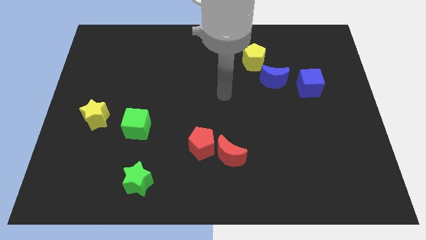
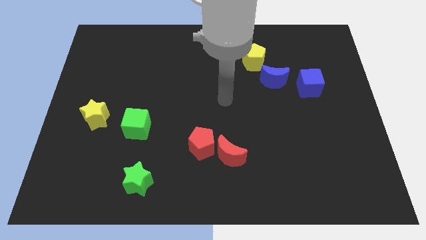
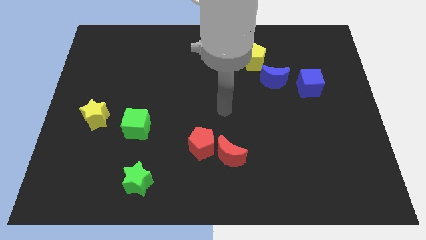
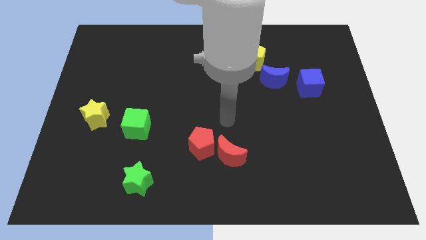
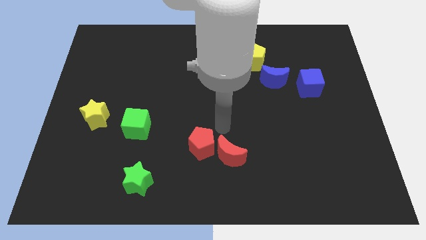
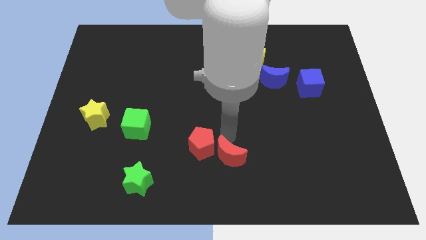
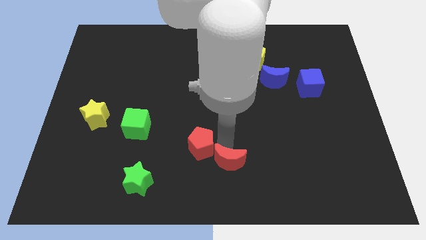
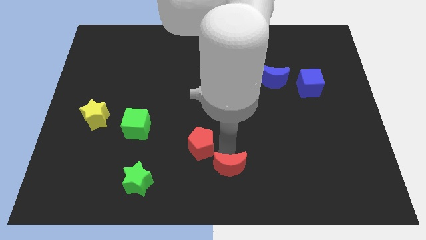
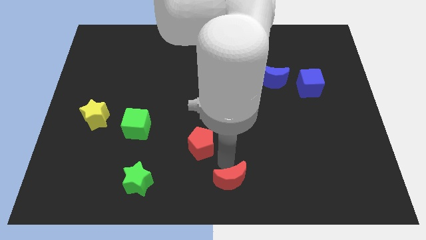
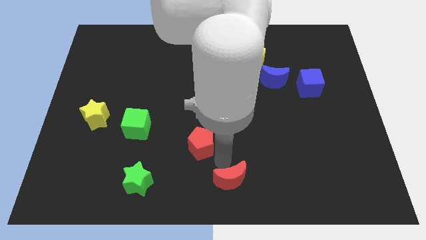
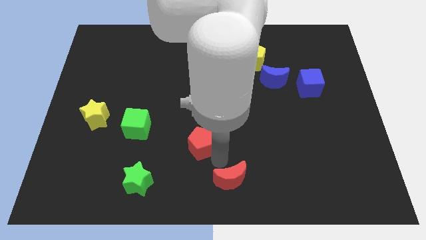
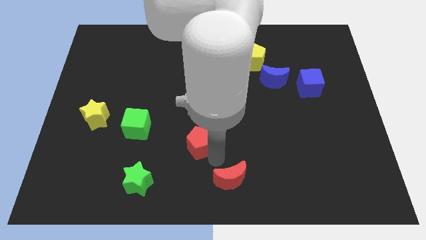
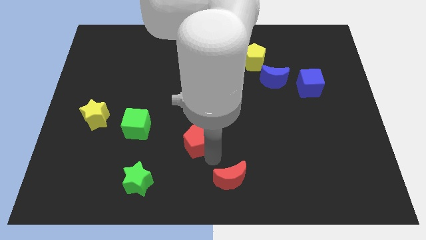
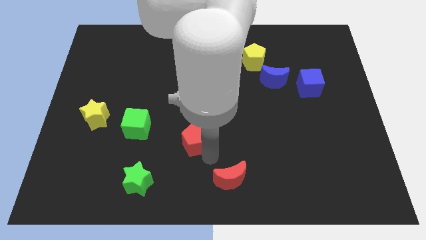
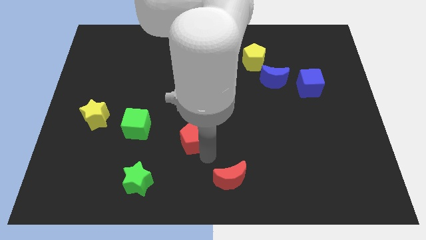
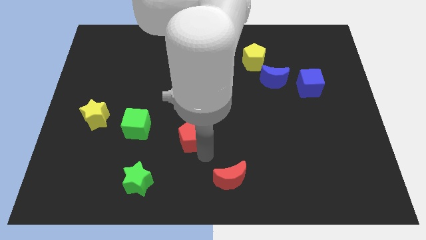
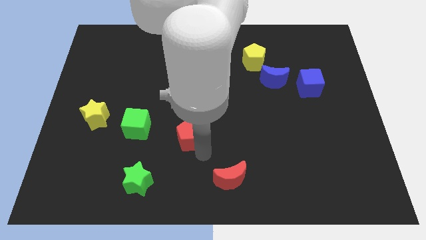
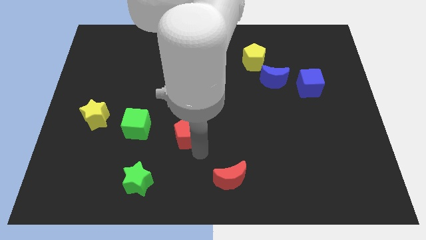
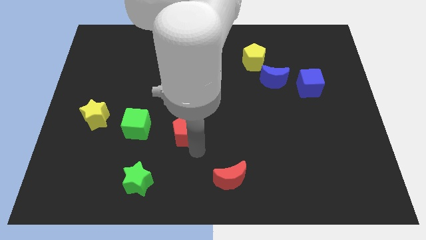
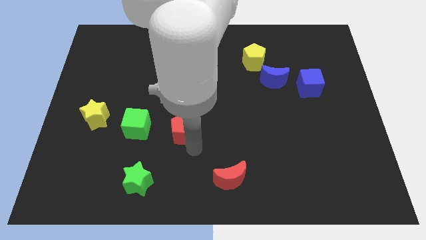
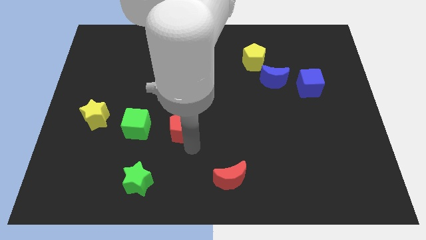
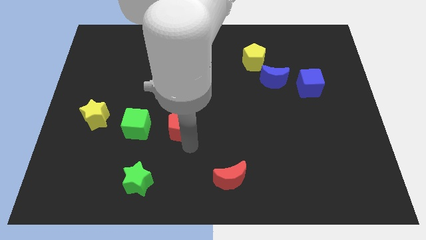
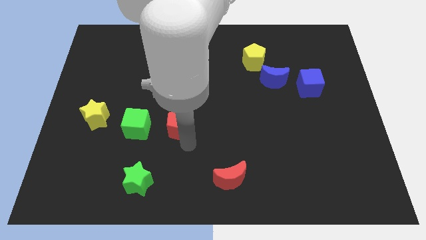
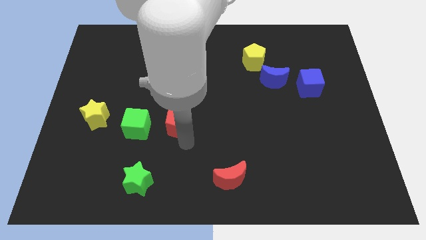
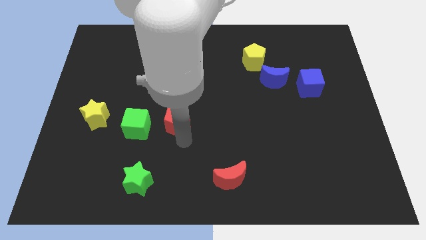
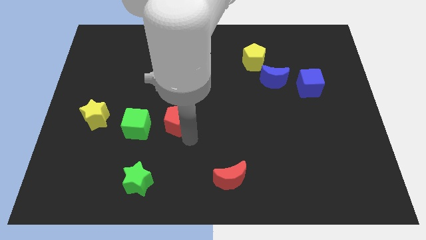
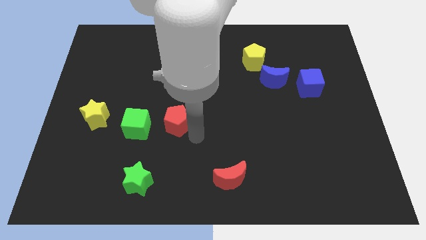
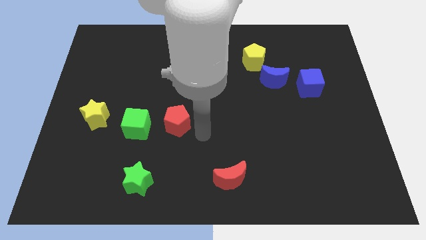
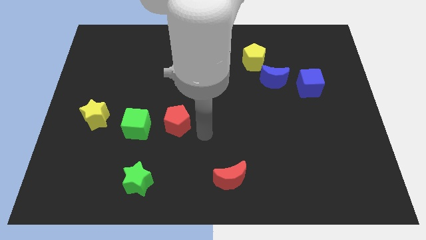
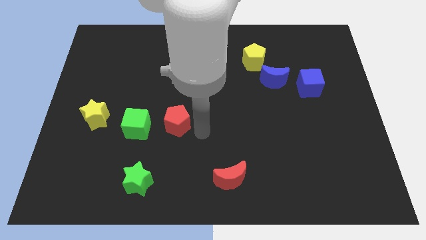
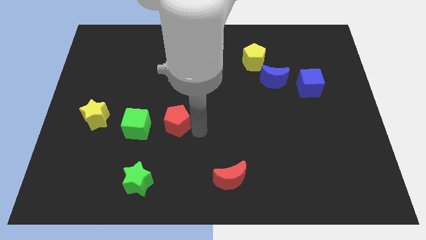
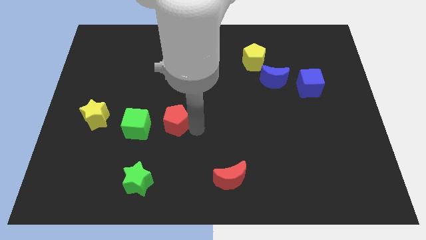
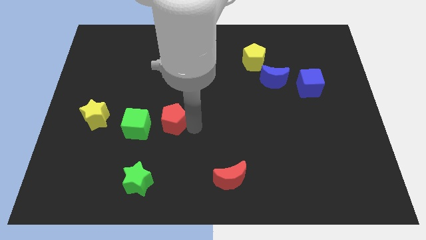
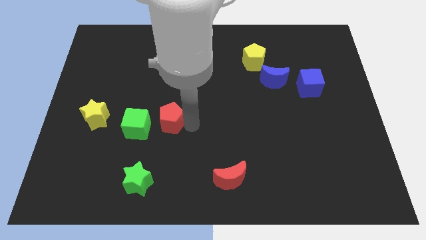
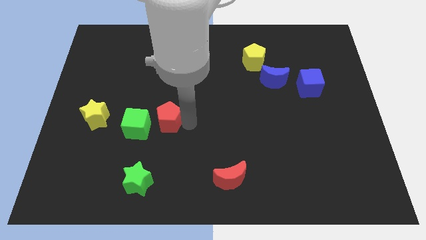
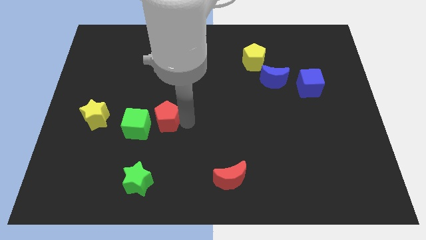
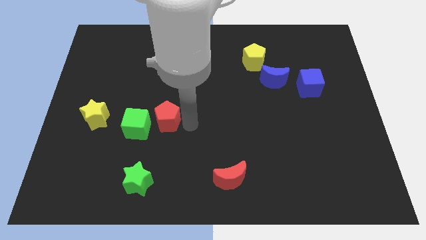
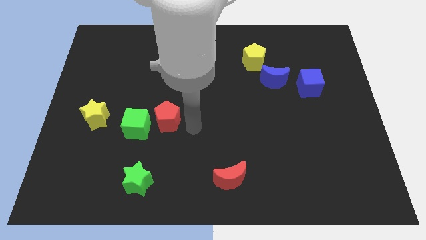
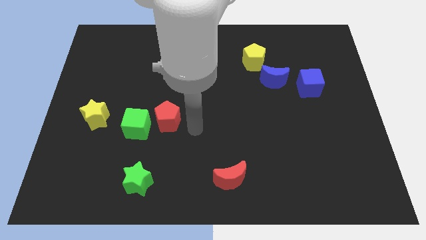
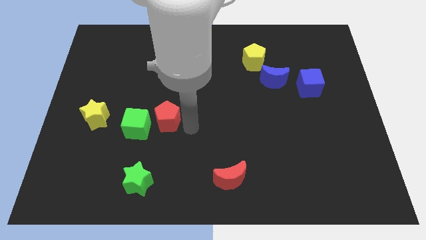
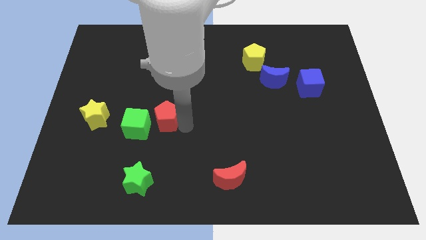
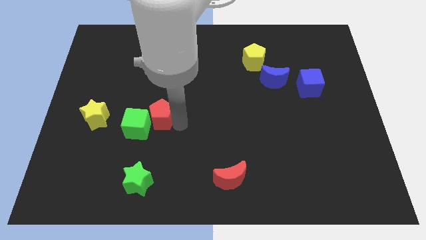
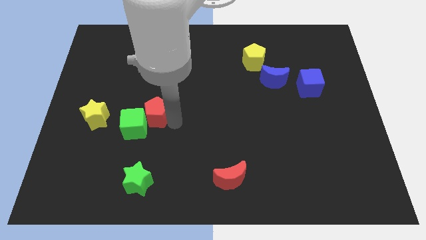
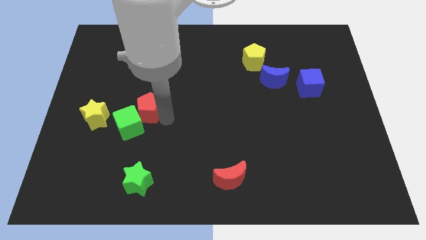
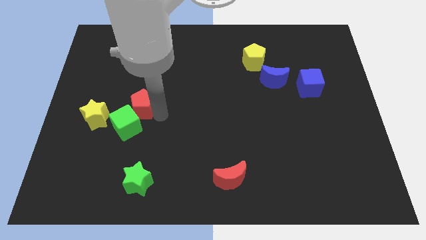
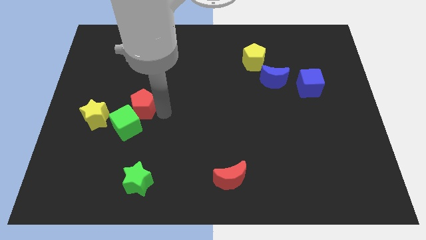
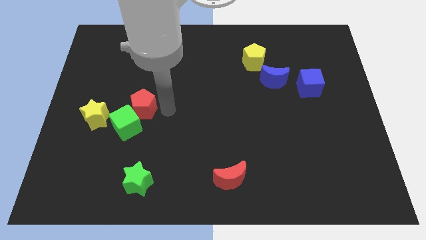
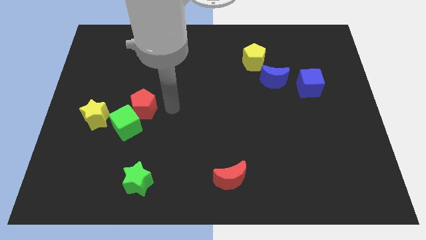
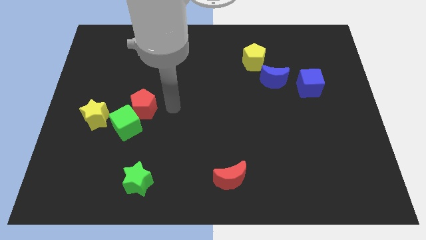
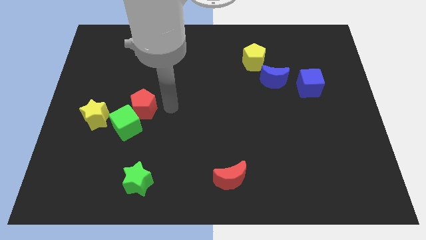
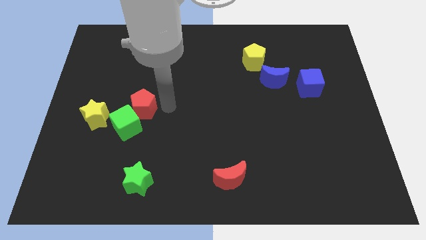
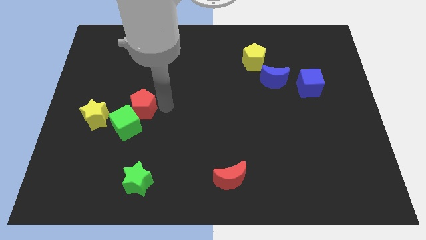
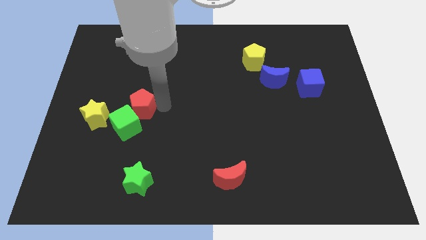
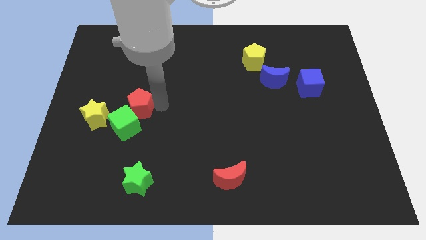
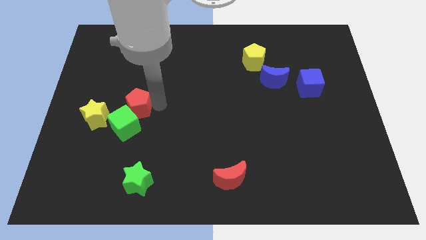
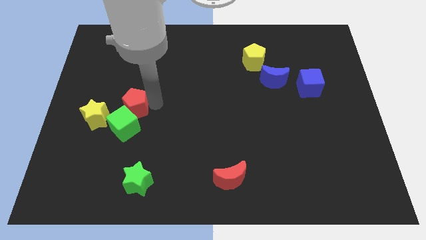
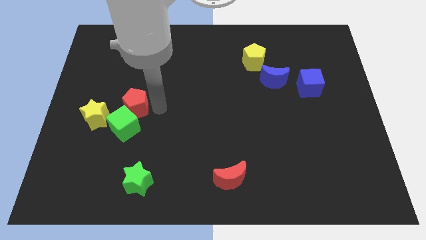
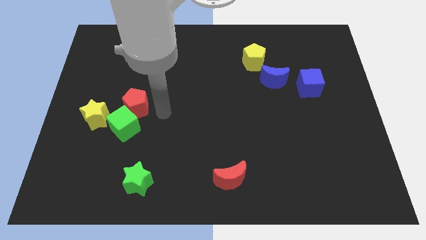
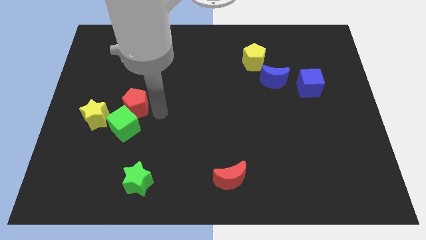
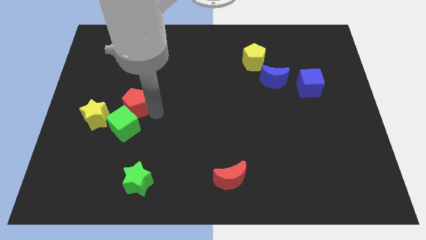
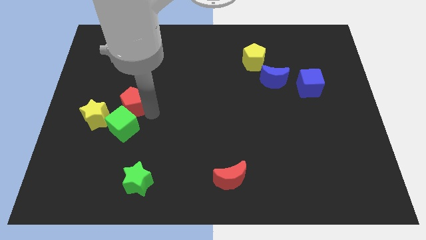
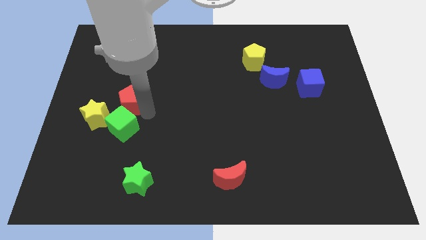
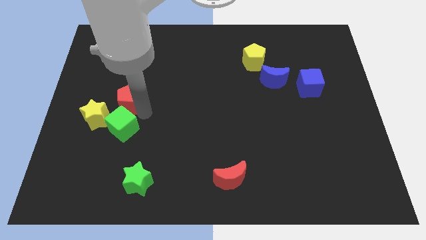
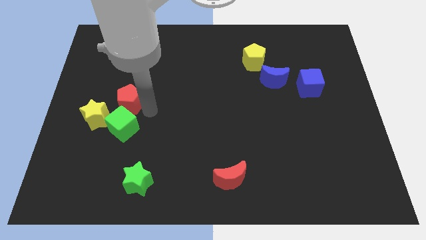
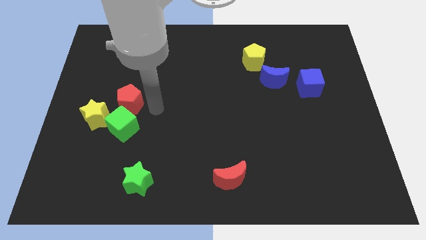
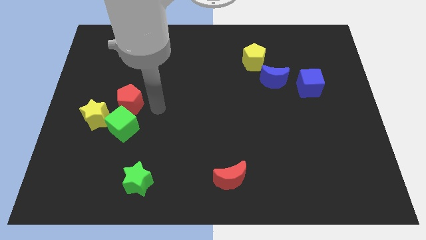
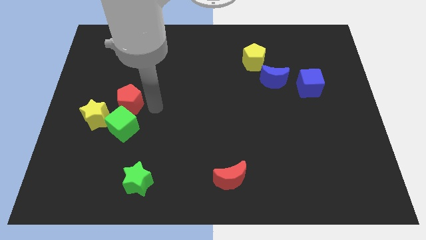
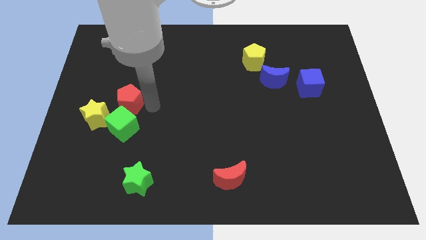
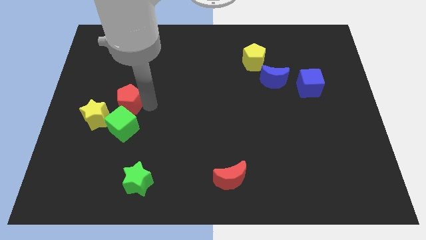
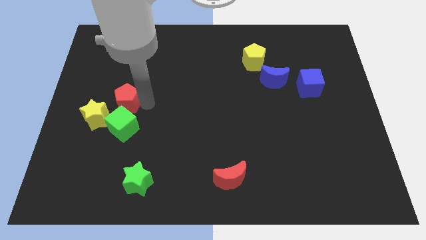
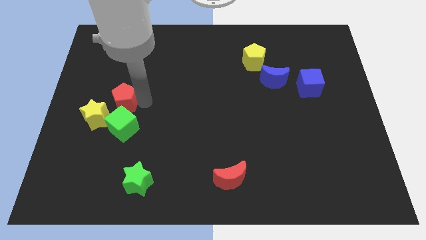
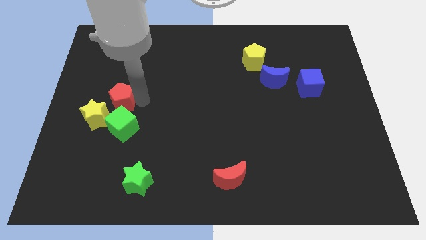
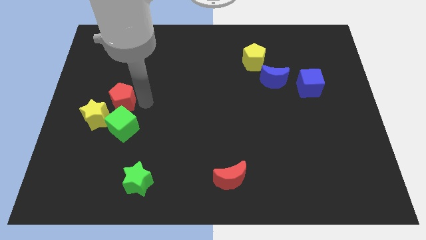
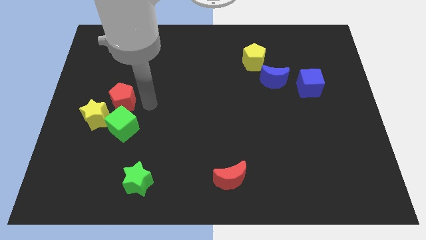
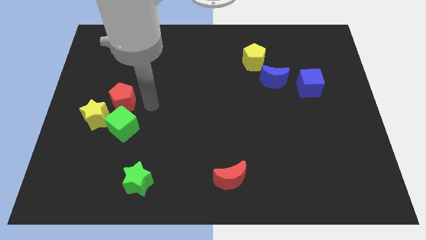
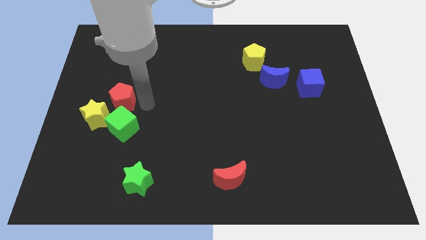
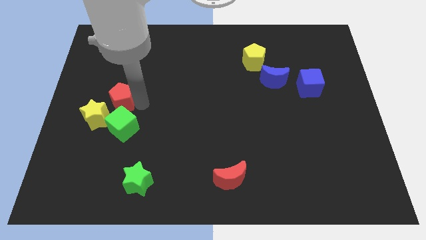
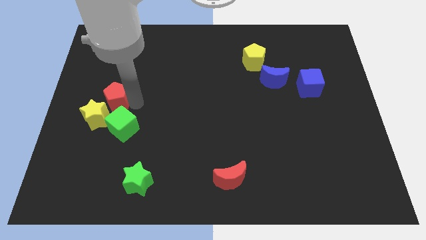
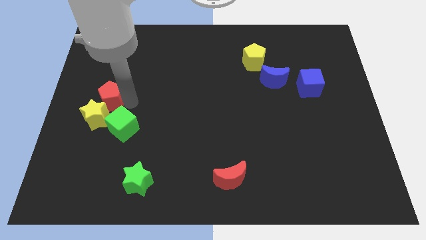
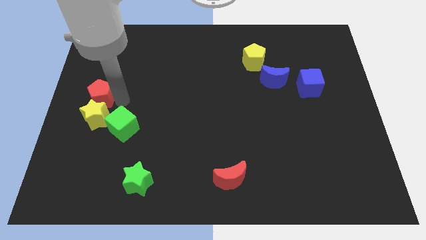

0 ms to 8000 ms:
move the red pentagon to the center left
